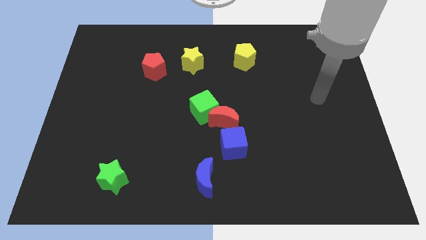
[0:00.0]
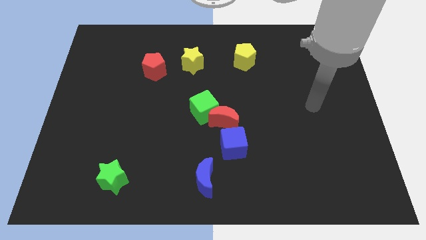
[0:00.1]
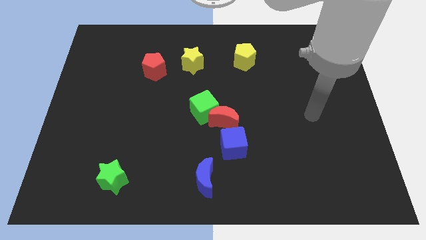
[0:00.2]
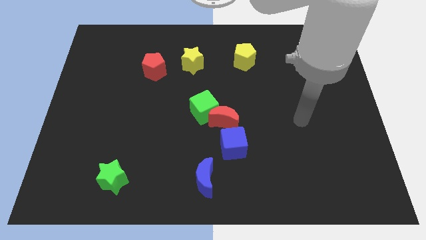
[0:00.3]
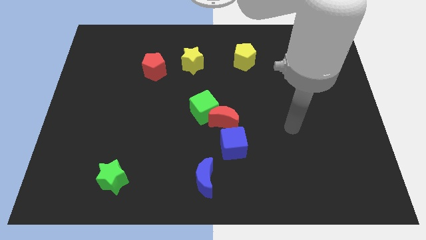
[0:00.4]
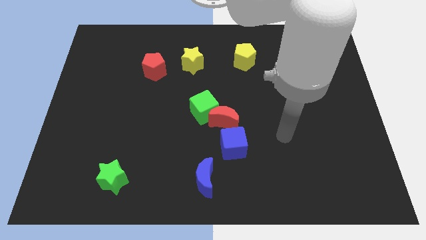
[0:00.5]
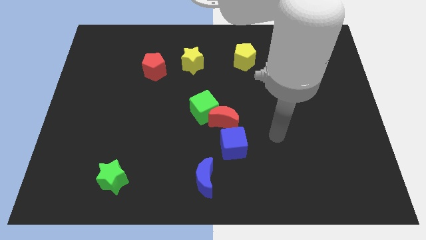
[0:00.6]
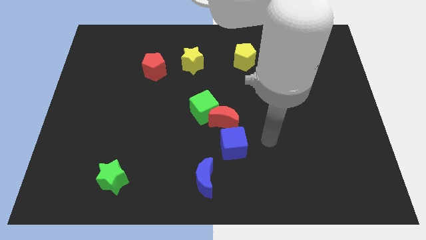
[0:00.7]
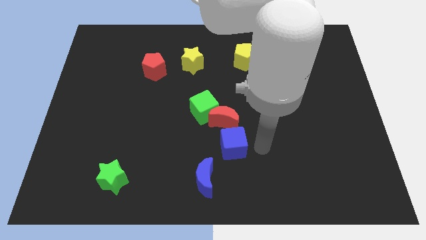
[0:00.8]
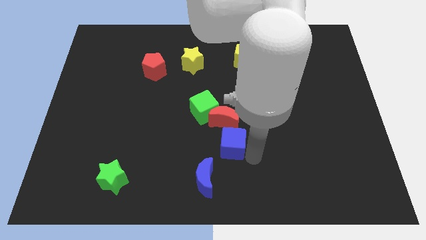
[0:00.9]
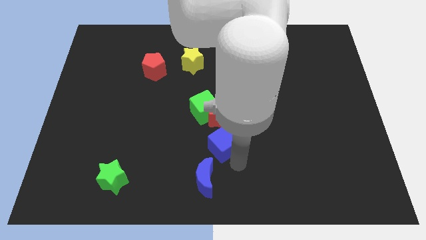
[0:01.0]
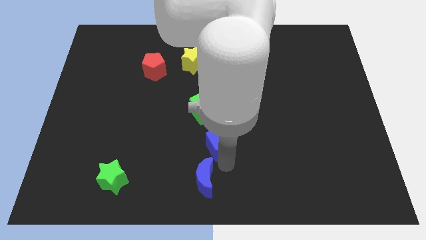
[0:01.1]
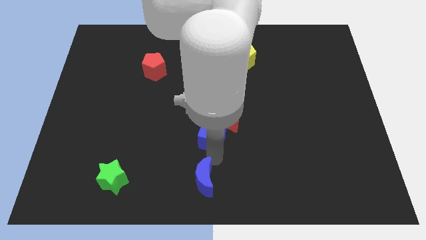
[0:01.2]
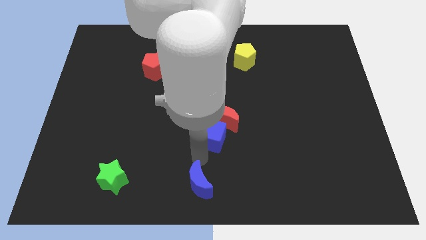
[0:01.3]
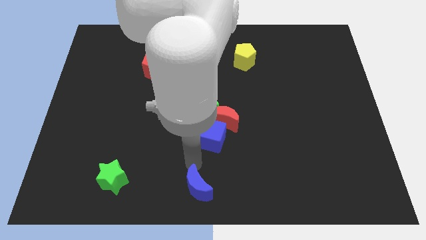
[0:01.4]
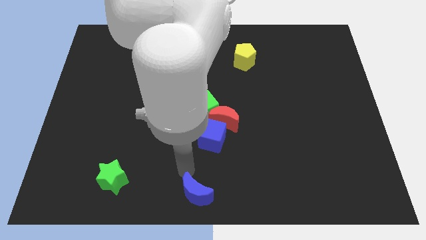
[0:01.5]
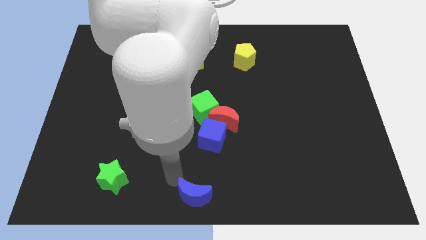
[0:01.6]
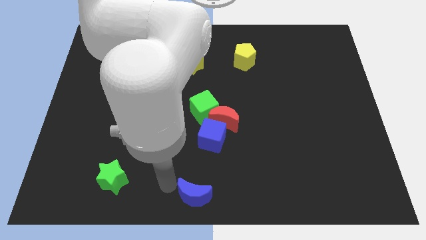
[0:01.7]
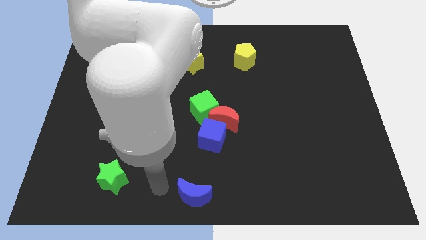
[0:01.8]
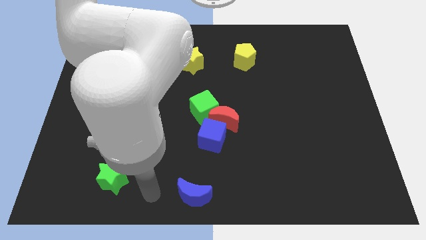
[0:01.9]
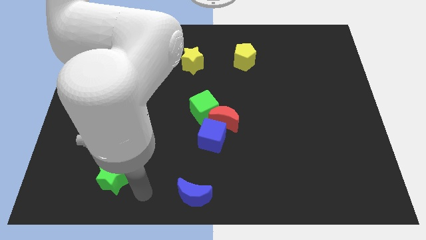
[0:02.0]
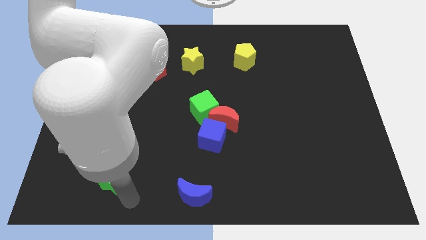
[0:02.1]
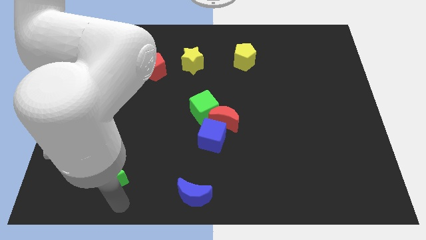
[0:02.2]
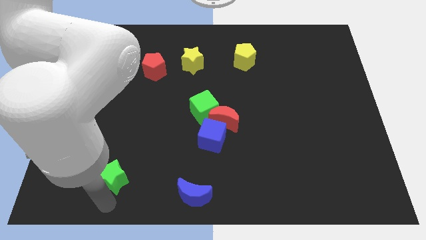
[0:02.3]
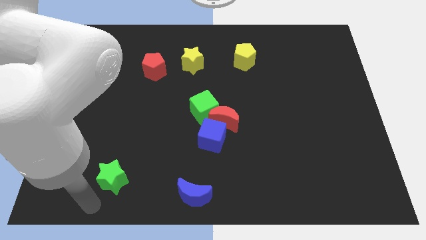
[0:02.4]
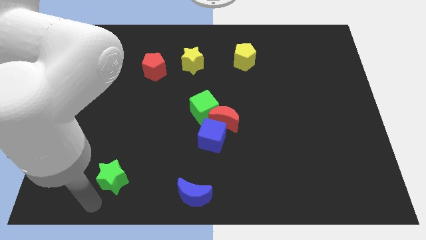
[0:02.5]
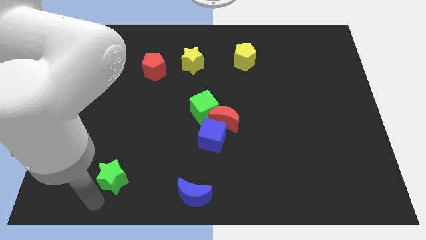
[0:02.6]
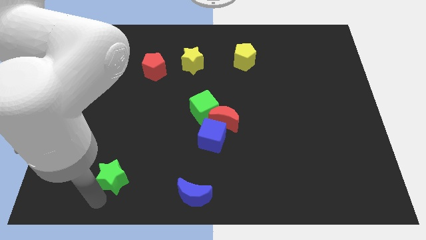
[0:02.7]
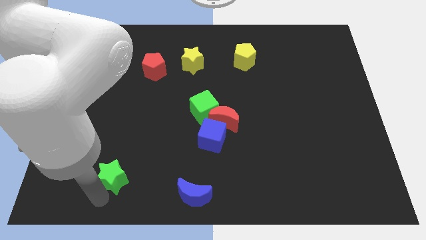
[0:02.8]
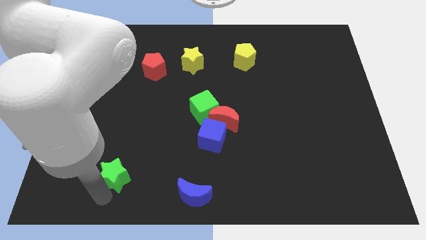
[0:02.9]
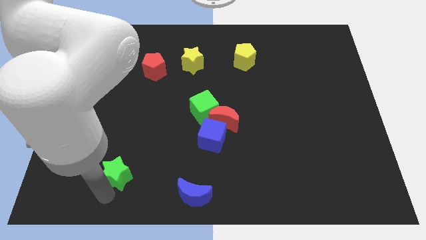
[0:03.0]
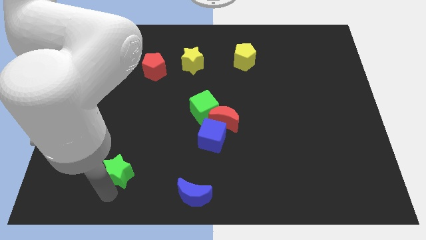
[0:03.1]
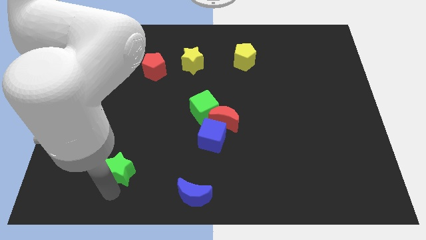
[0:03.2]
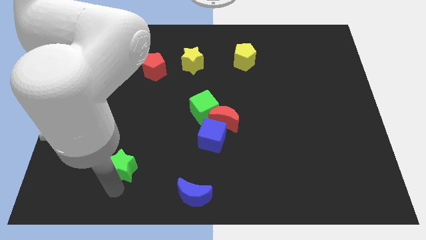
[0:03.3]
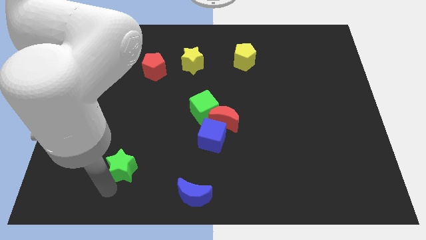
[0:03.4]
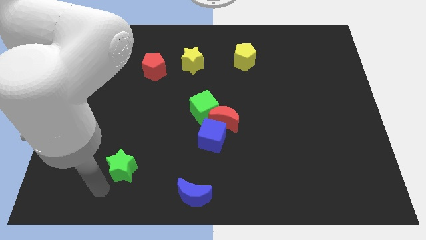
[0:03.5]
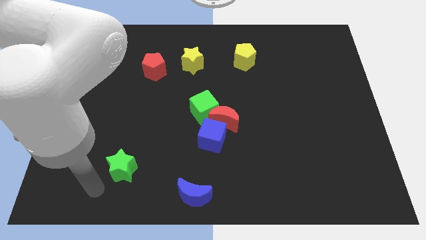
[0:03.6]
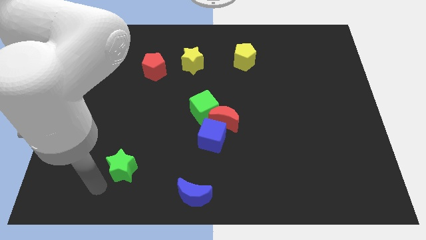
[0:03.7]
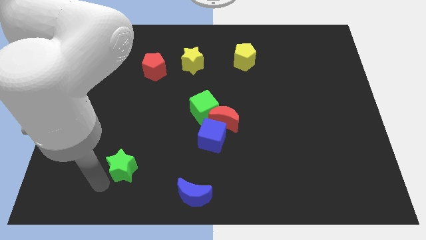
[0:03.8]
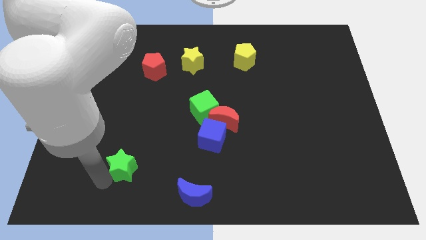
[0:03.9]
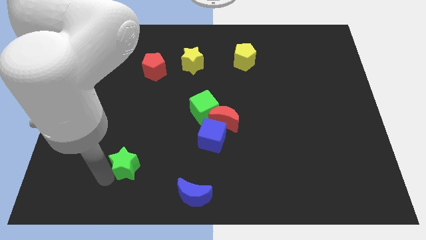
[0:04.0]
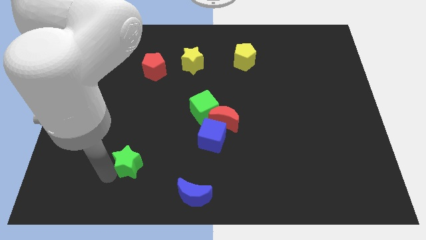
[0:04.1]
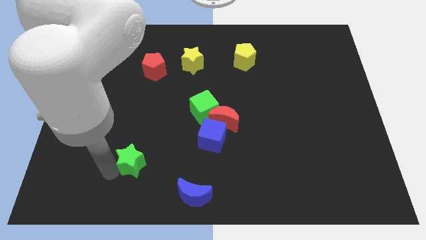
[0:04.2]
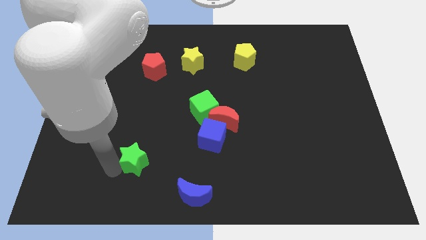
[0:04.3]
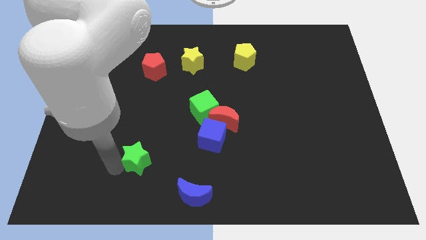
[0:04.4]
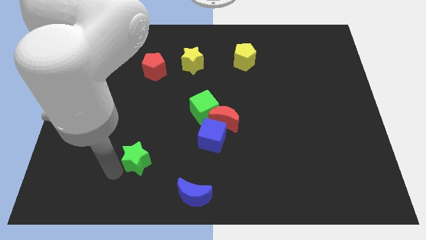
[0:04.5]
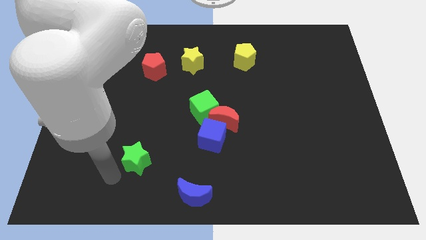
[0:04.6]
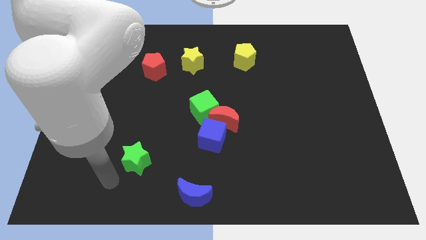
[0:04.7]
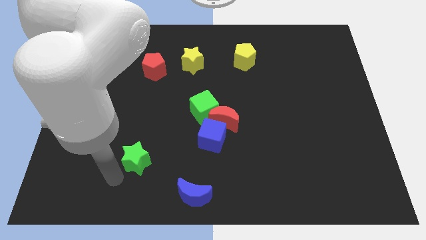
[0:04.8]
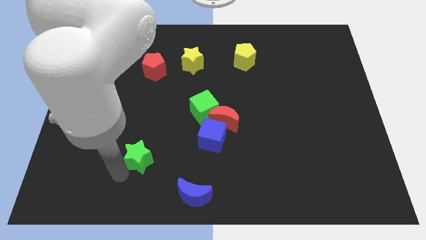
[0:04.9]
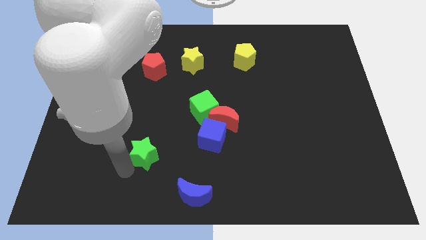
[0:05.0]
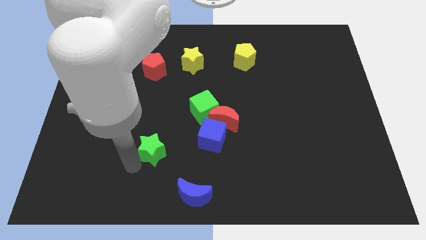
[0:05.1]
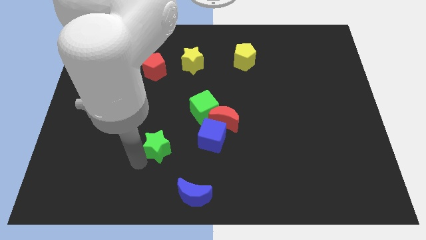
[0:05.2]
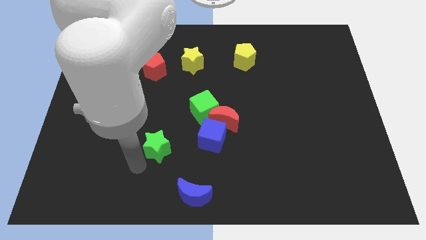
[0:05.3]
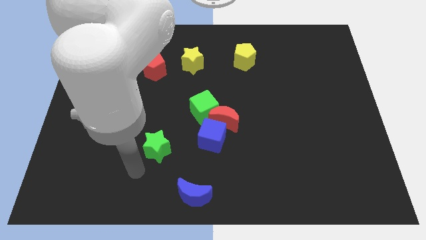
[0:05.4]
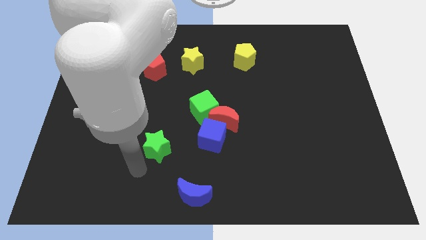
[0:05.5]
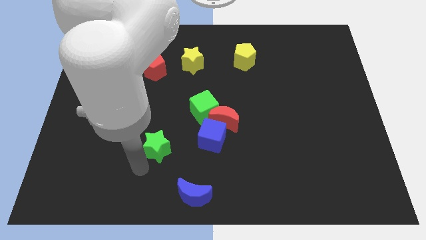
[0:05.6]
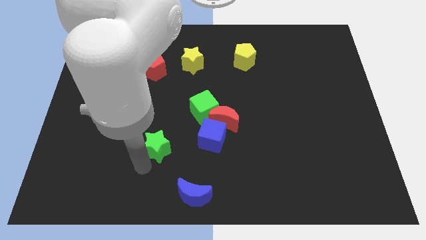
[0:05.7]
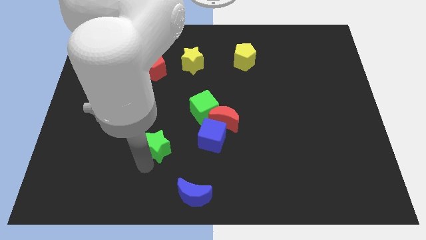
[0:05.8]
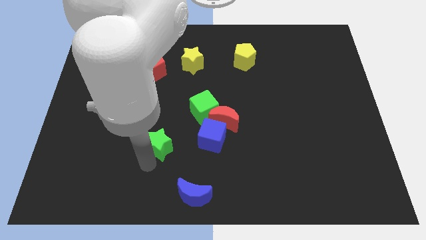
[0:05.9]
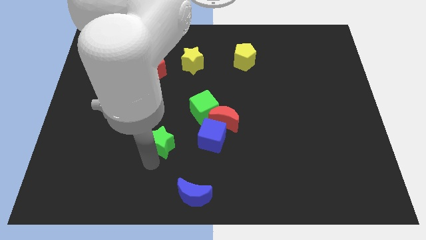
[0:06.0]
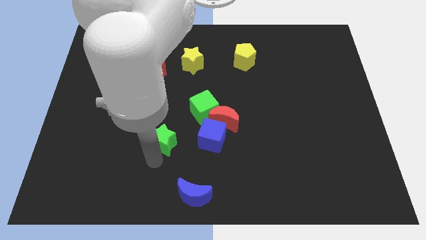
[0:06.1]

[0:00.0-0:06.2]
put the green star diagonally down and to the left of the green cube

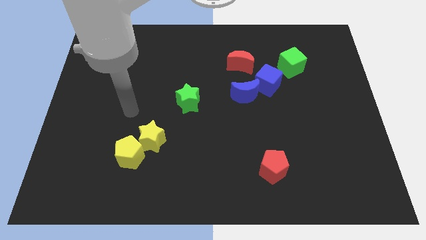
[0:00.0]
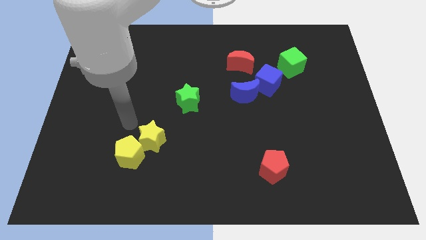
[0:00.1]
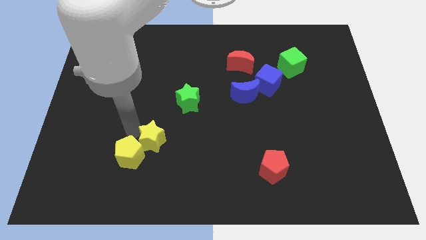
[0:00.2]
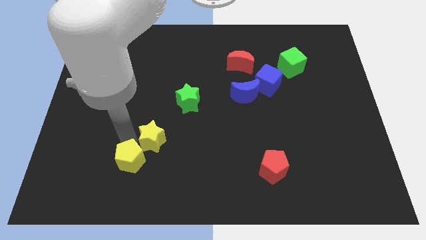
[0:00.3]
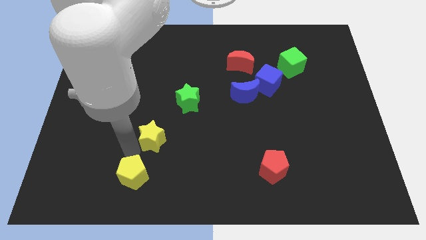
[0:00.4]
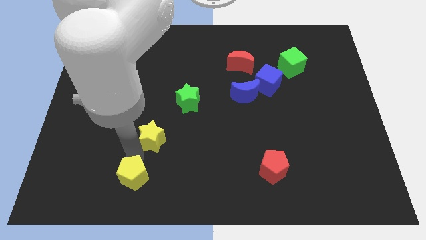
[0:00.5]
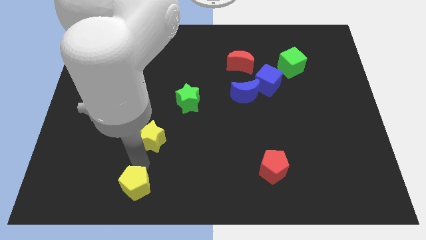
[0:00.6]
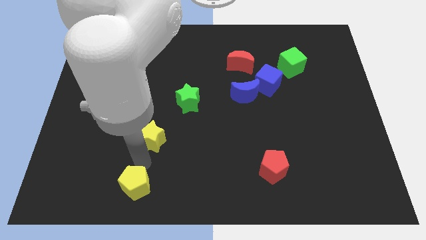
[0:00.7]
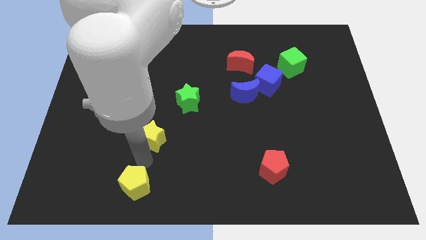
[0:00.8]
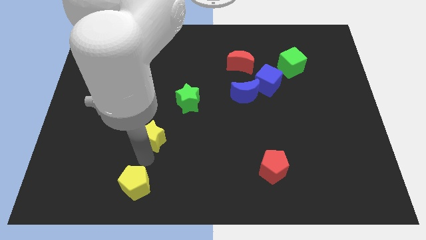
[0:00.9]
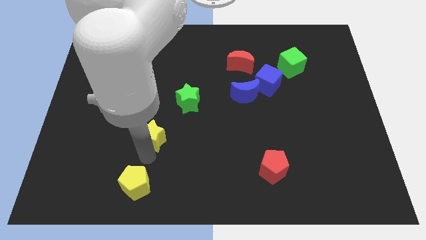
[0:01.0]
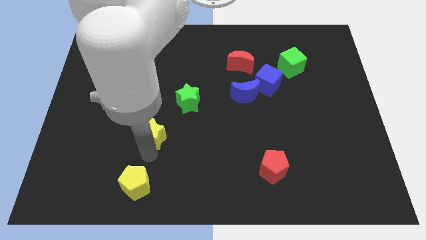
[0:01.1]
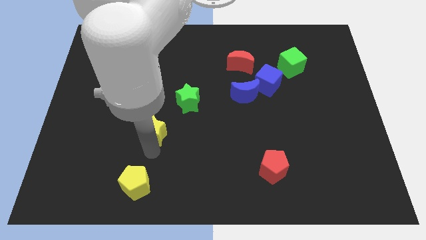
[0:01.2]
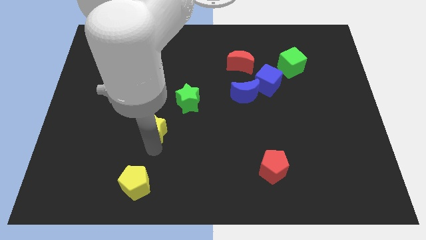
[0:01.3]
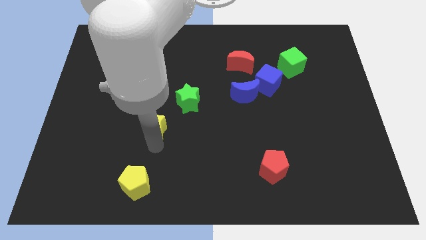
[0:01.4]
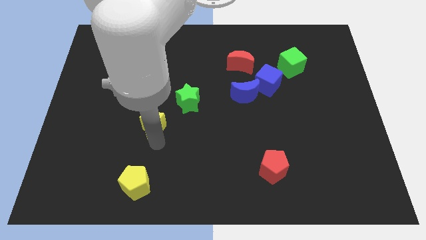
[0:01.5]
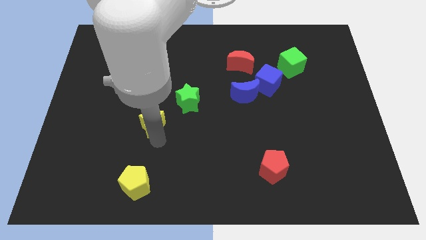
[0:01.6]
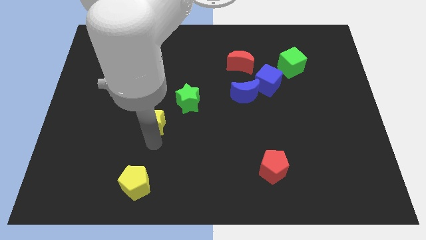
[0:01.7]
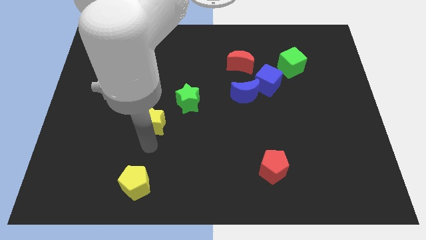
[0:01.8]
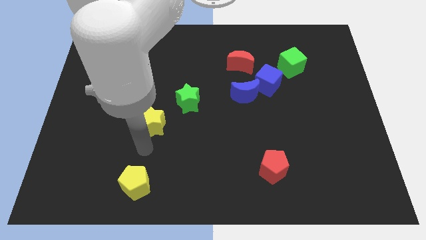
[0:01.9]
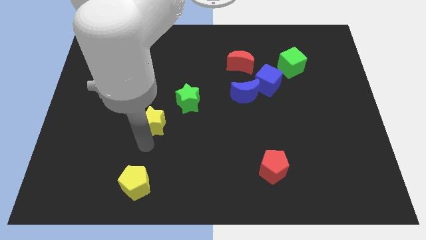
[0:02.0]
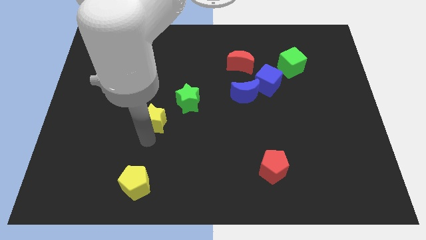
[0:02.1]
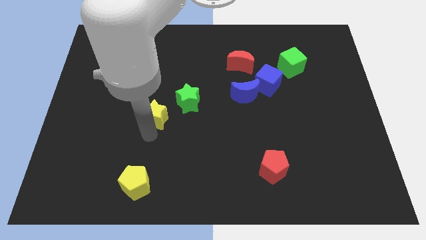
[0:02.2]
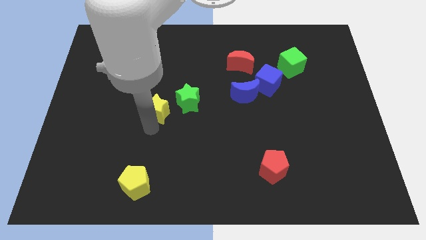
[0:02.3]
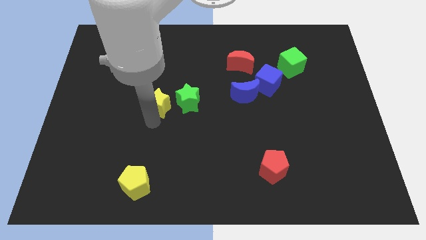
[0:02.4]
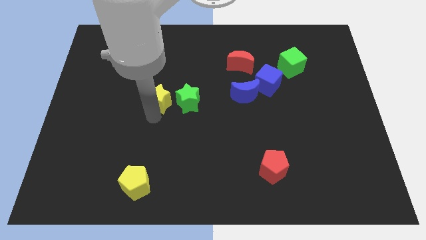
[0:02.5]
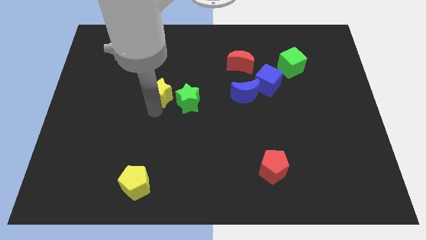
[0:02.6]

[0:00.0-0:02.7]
slide the yellow star diagonally up and to the left of the green star

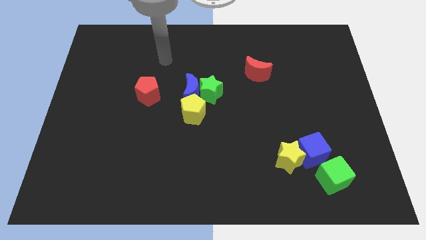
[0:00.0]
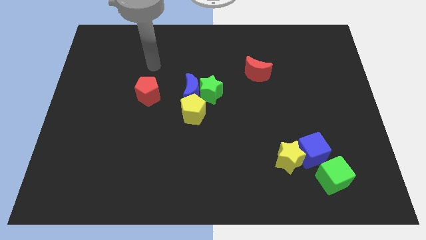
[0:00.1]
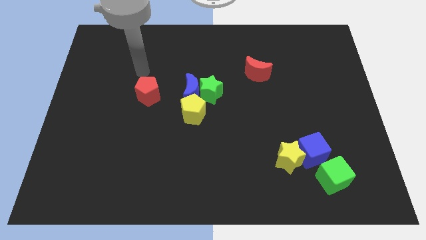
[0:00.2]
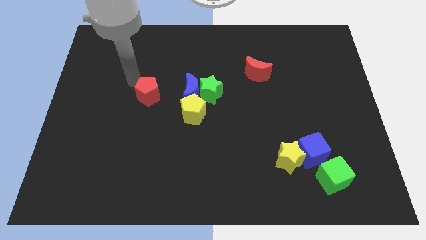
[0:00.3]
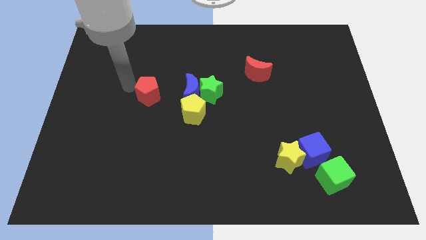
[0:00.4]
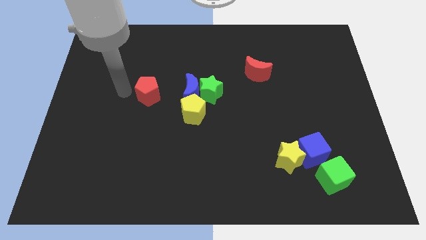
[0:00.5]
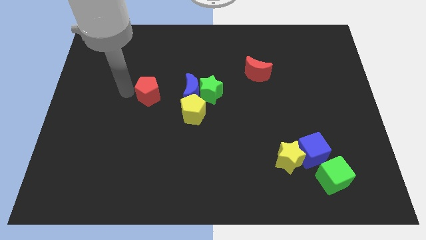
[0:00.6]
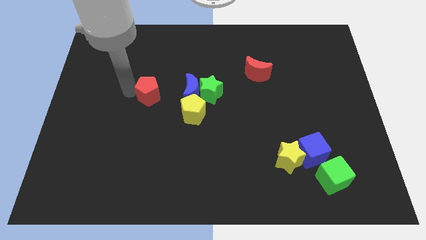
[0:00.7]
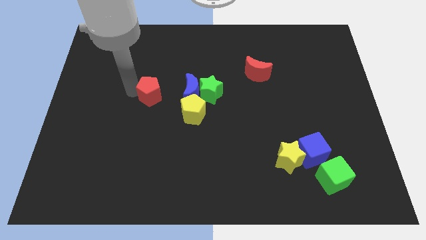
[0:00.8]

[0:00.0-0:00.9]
push the red pentagon to the top left of the yellow pentagon
